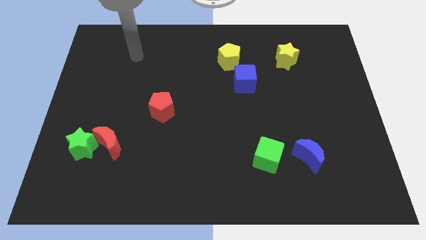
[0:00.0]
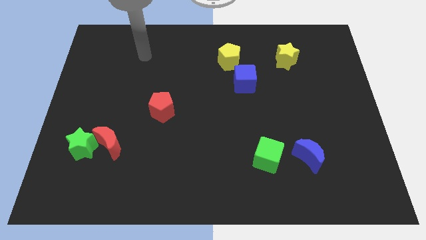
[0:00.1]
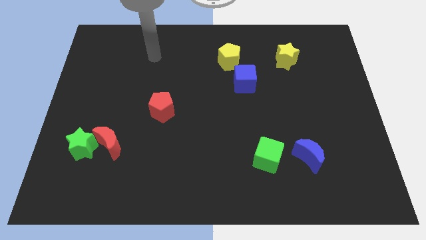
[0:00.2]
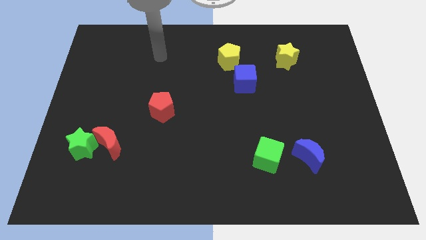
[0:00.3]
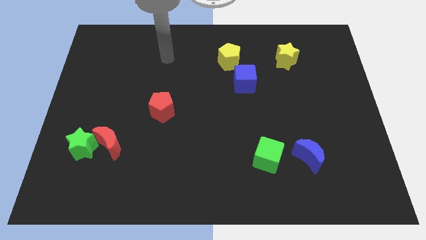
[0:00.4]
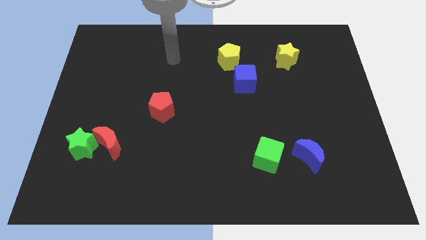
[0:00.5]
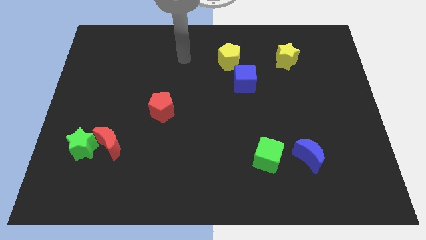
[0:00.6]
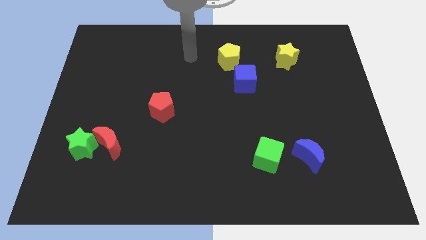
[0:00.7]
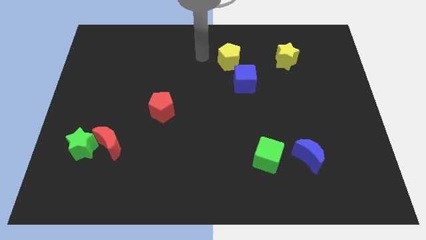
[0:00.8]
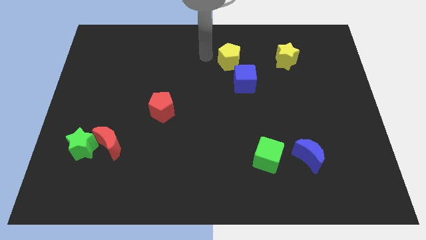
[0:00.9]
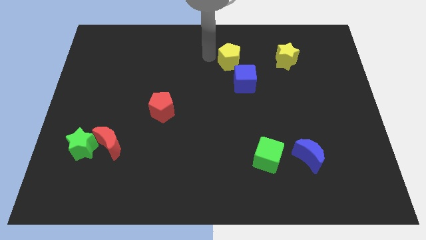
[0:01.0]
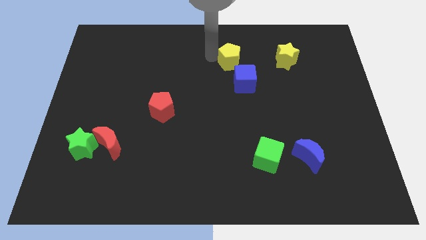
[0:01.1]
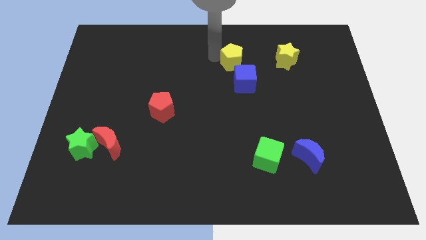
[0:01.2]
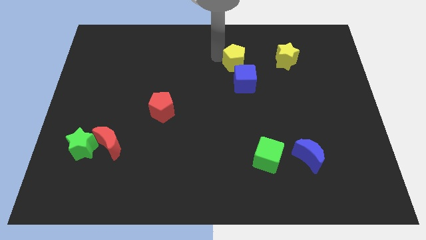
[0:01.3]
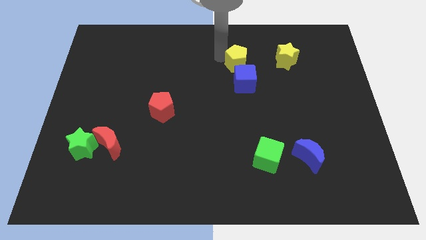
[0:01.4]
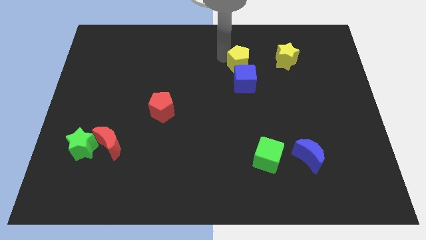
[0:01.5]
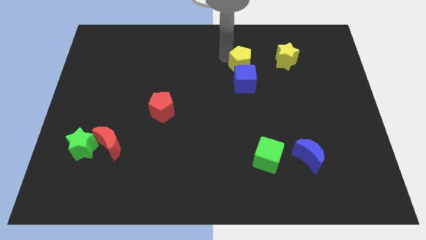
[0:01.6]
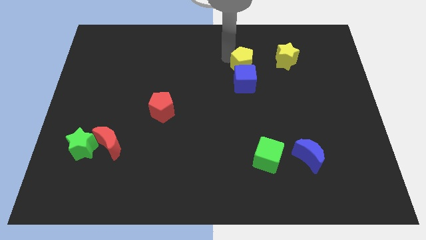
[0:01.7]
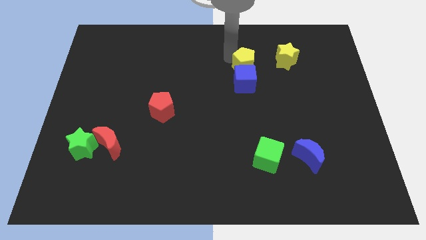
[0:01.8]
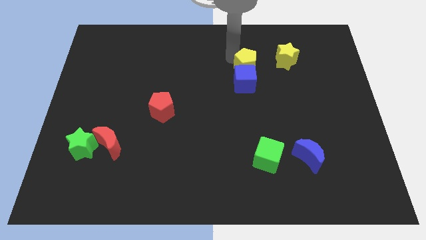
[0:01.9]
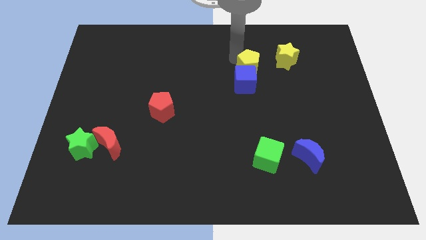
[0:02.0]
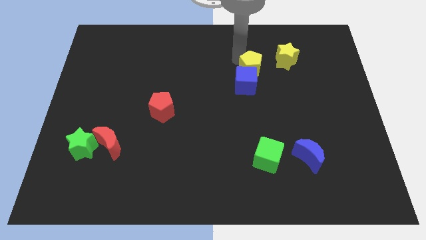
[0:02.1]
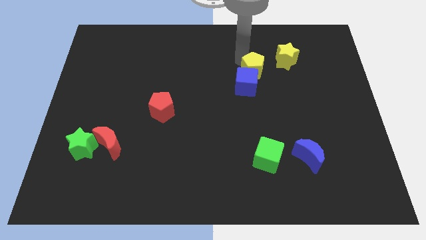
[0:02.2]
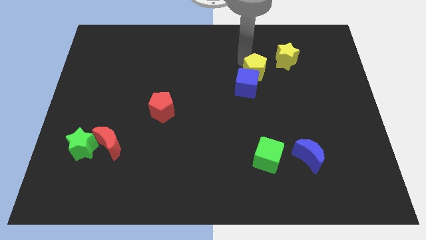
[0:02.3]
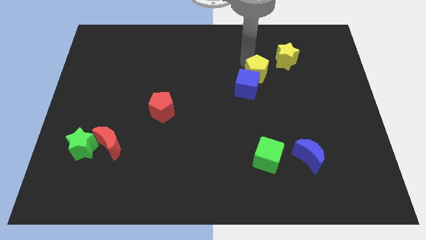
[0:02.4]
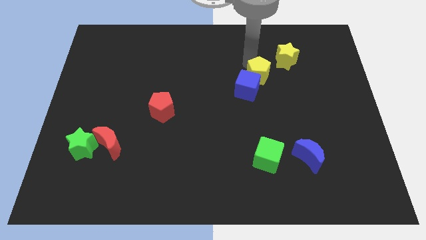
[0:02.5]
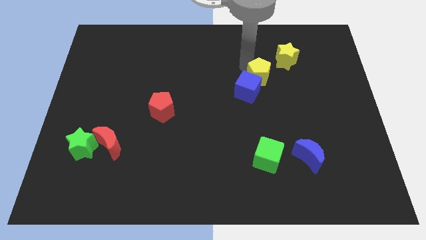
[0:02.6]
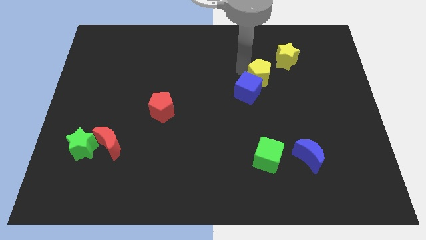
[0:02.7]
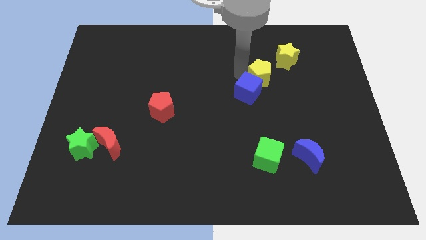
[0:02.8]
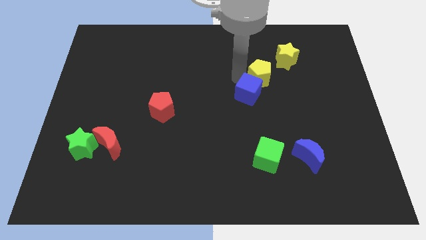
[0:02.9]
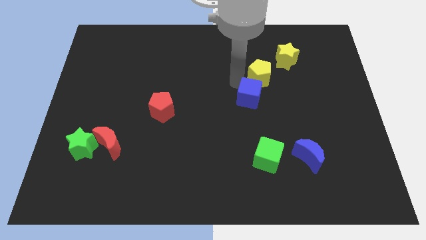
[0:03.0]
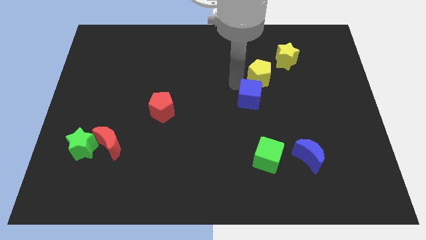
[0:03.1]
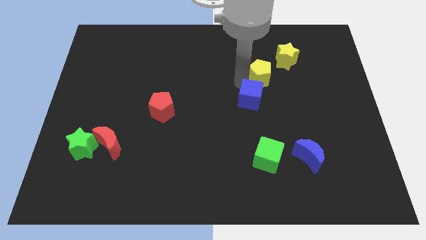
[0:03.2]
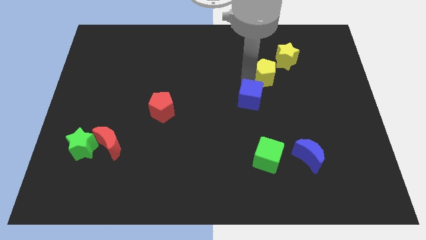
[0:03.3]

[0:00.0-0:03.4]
slide the yellow pentagon a little right

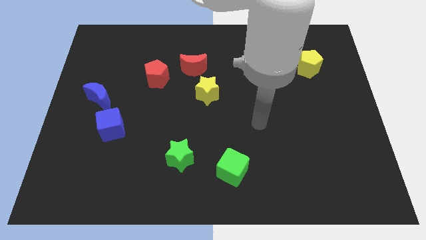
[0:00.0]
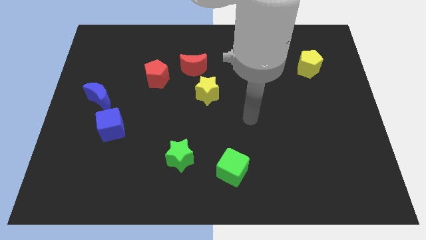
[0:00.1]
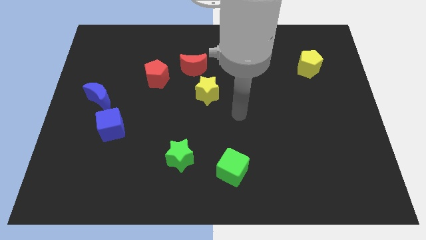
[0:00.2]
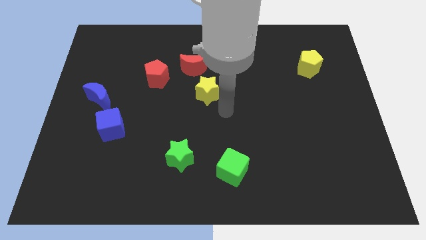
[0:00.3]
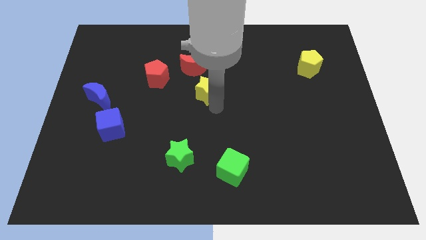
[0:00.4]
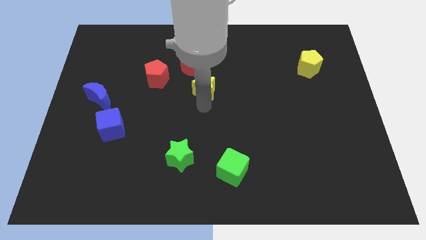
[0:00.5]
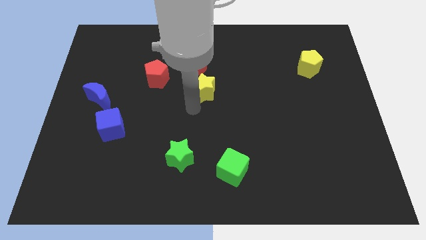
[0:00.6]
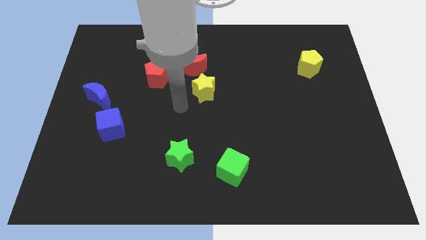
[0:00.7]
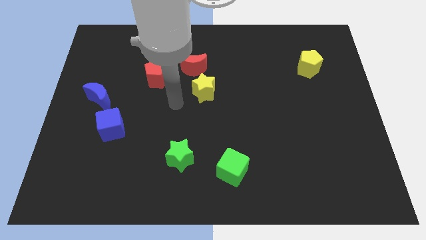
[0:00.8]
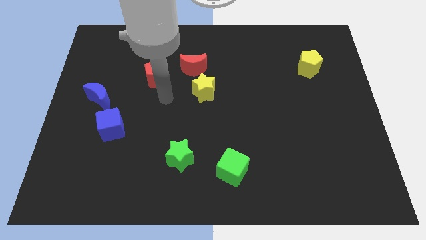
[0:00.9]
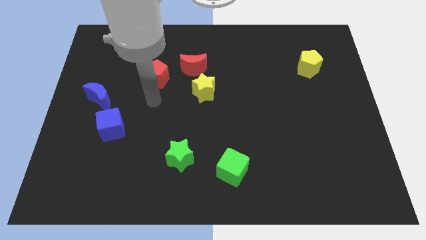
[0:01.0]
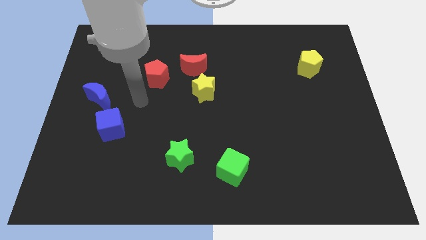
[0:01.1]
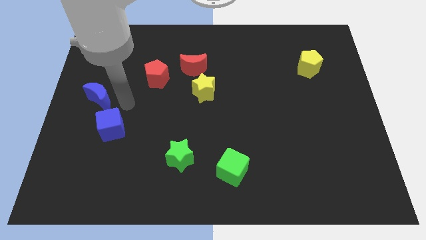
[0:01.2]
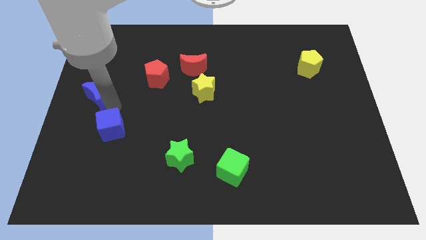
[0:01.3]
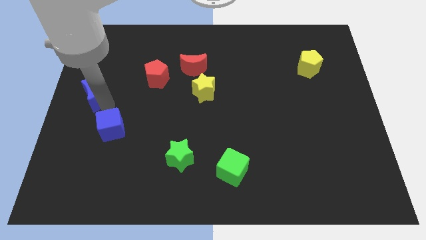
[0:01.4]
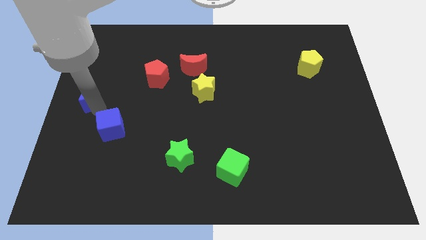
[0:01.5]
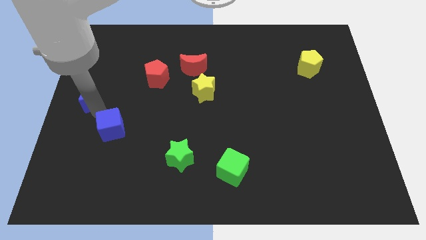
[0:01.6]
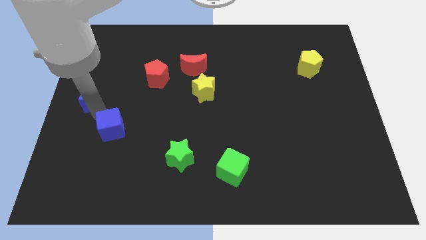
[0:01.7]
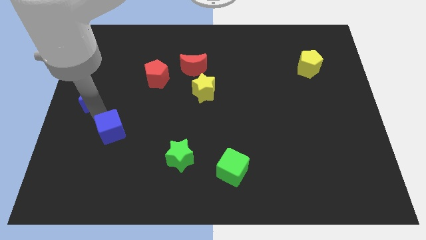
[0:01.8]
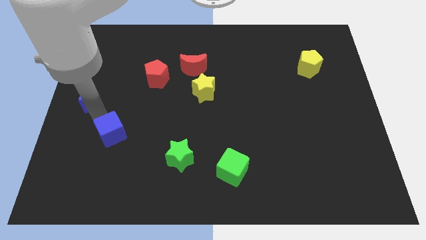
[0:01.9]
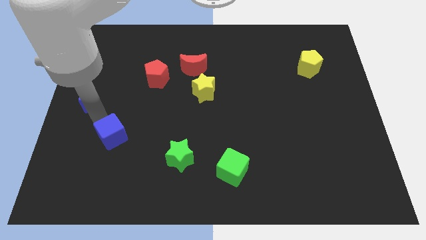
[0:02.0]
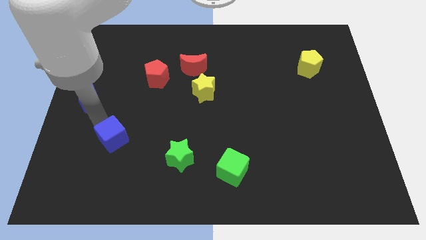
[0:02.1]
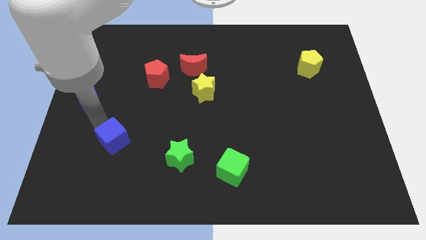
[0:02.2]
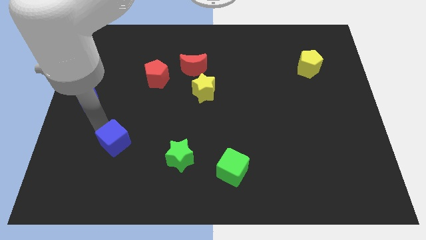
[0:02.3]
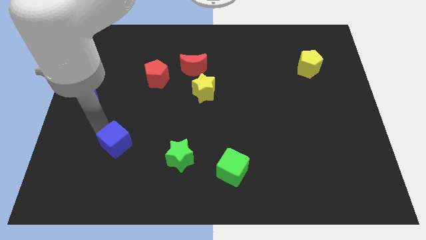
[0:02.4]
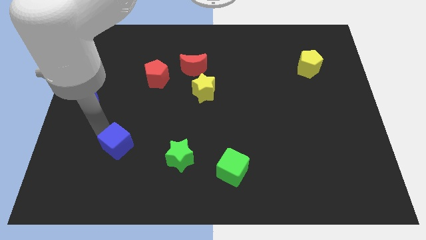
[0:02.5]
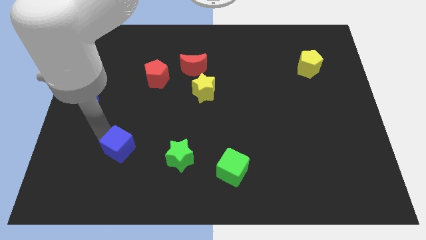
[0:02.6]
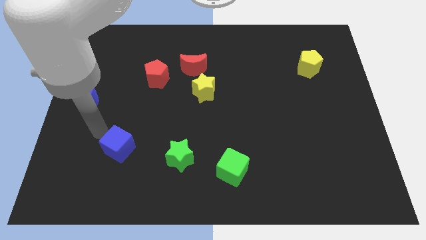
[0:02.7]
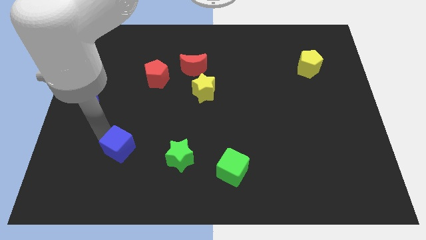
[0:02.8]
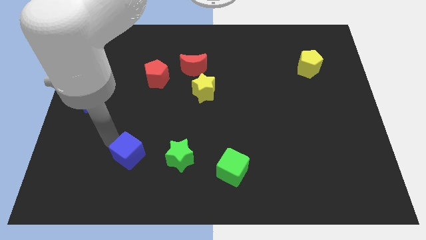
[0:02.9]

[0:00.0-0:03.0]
push the blue cube down and then to the right somewhat

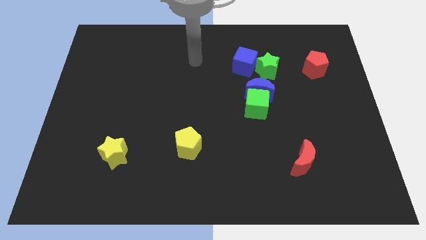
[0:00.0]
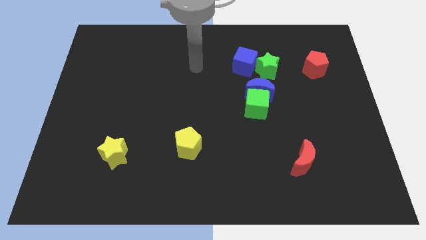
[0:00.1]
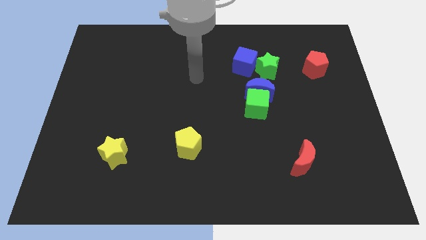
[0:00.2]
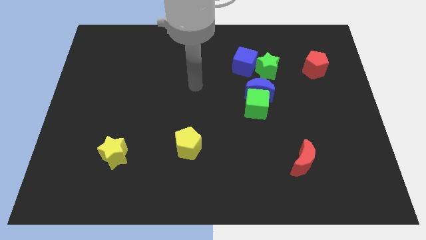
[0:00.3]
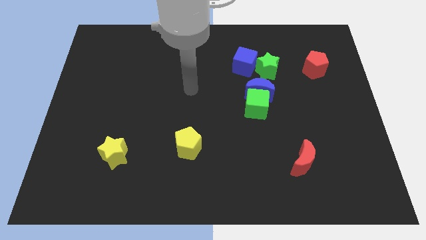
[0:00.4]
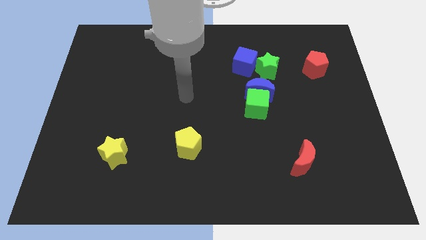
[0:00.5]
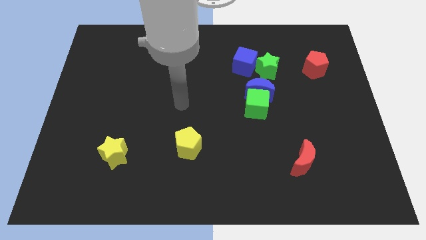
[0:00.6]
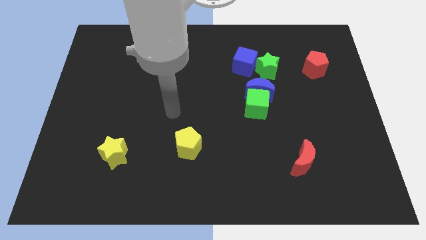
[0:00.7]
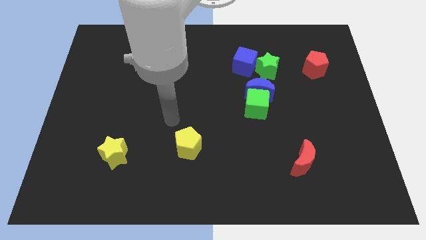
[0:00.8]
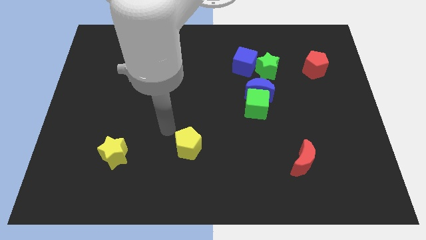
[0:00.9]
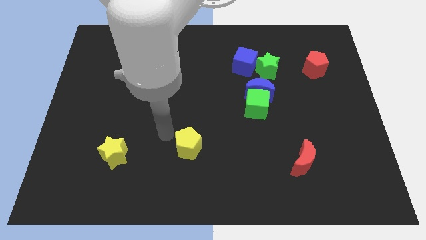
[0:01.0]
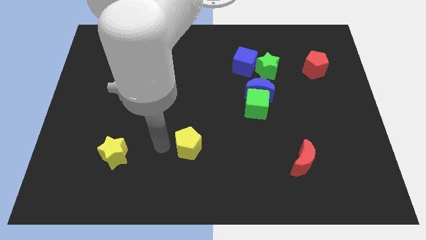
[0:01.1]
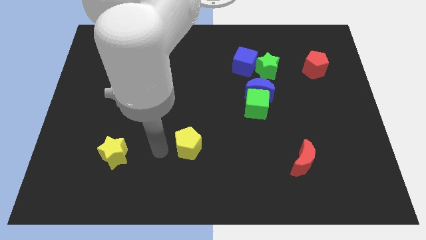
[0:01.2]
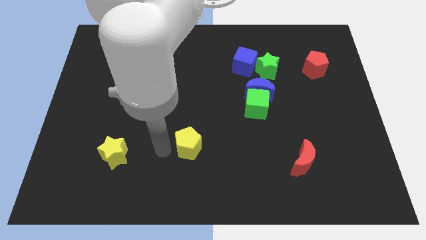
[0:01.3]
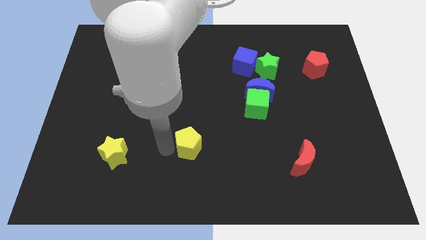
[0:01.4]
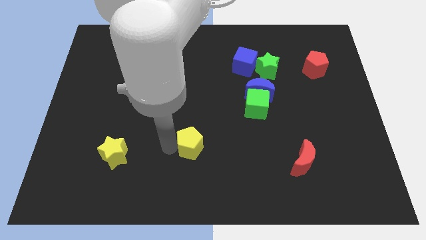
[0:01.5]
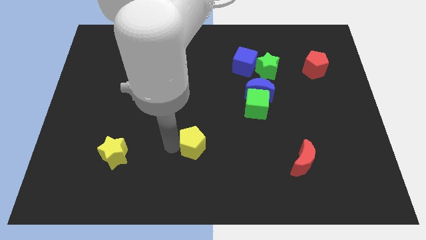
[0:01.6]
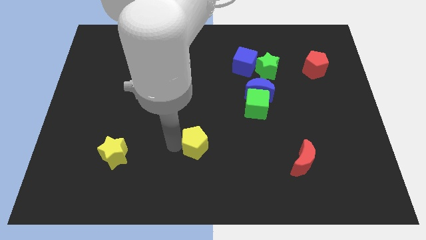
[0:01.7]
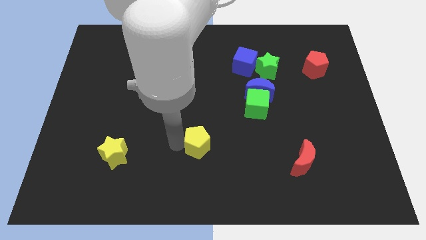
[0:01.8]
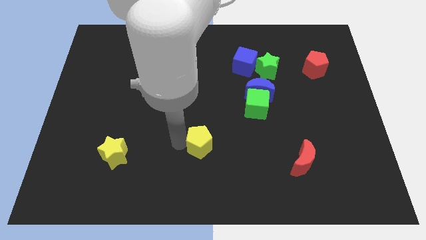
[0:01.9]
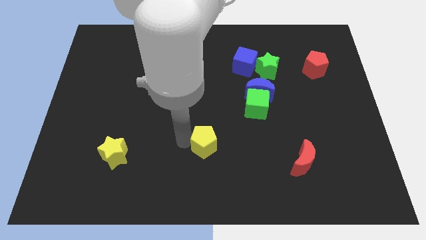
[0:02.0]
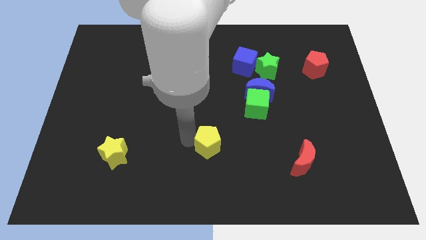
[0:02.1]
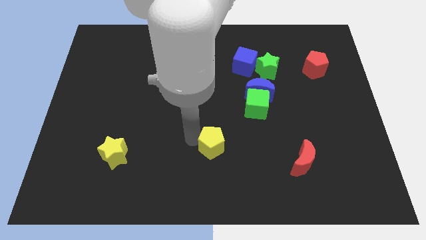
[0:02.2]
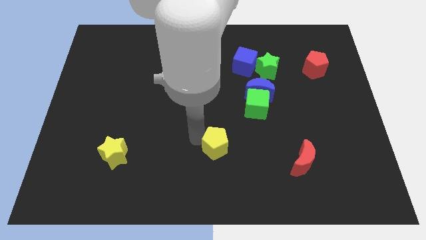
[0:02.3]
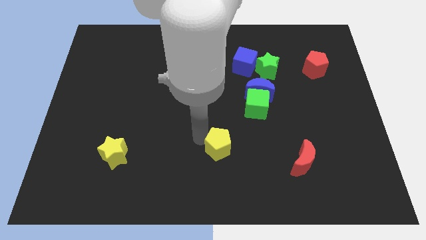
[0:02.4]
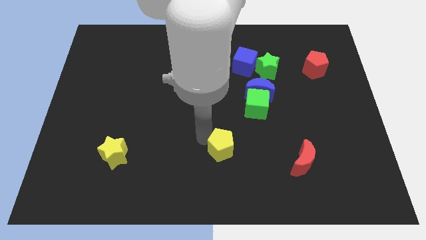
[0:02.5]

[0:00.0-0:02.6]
slightly slide the yellow pentagon right
